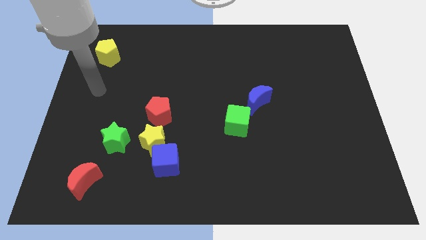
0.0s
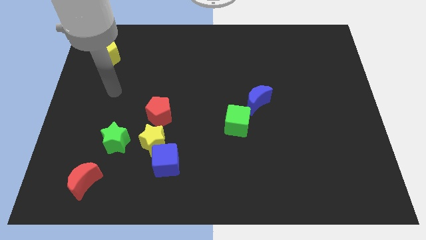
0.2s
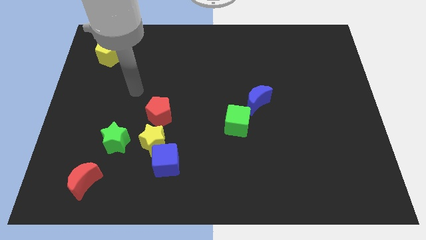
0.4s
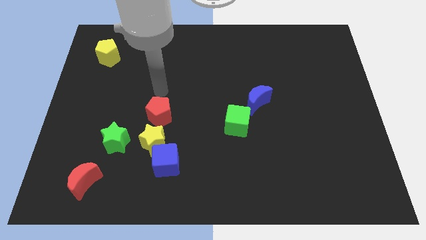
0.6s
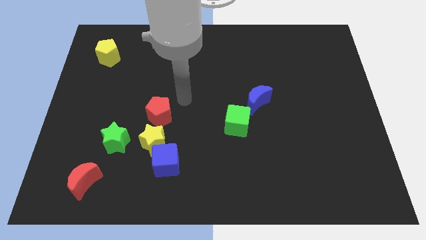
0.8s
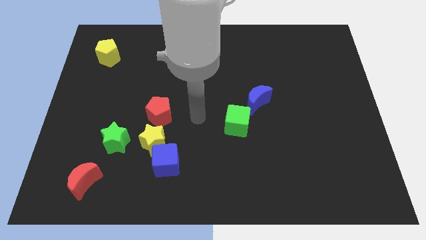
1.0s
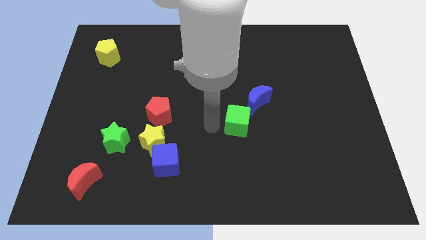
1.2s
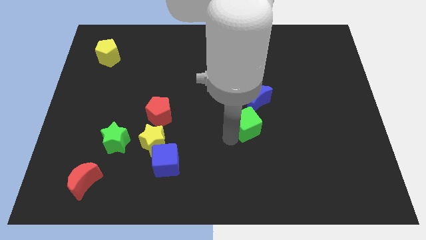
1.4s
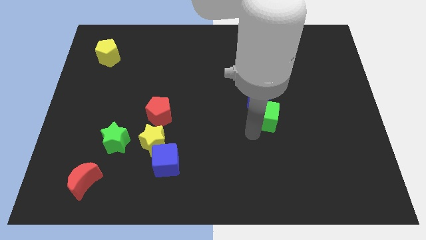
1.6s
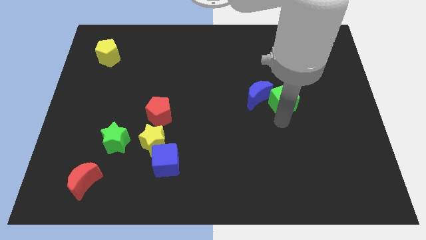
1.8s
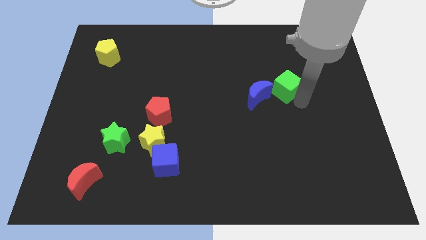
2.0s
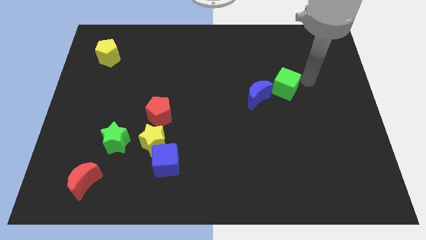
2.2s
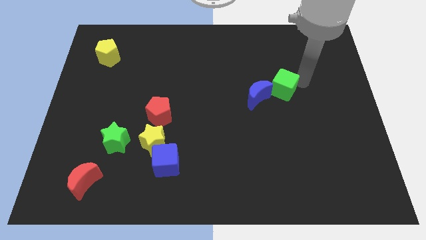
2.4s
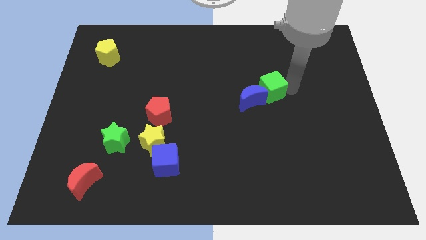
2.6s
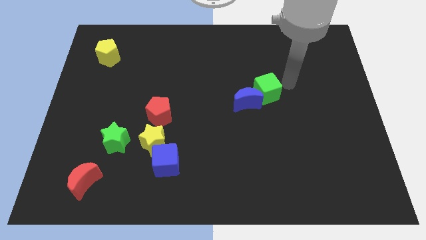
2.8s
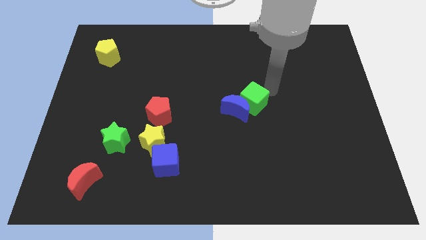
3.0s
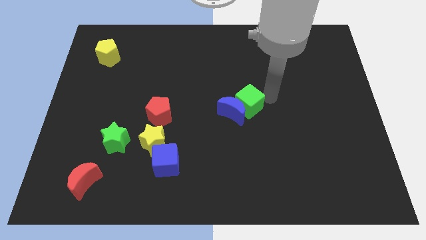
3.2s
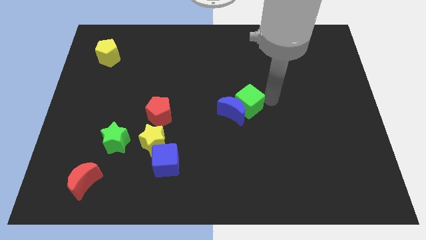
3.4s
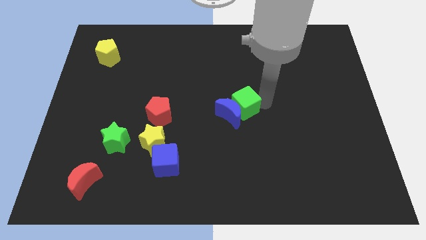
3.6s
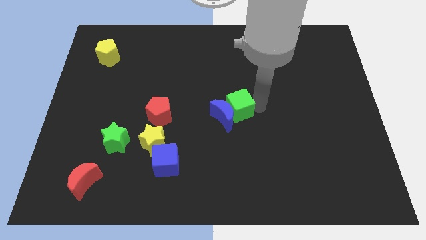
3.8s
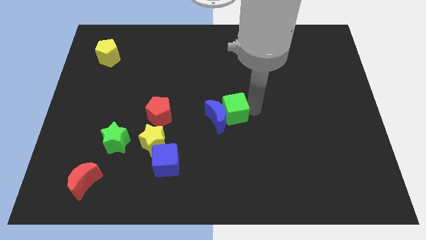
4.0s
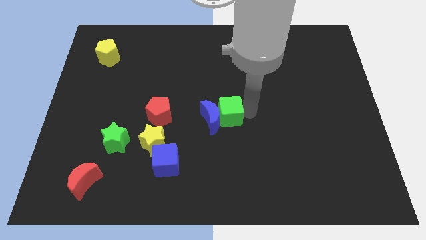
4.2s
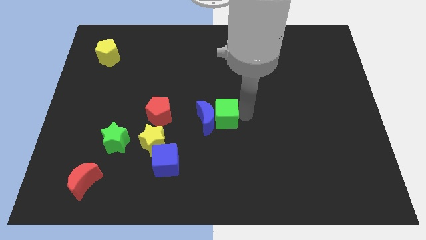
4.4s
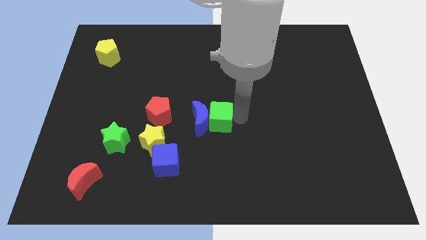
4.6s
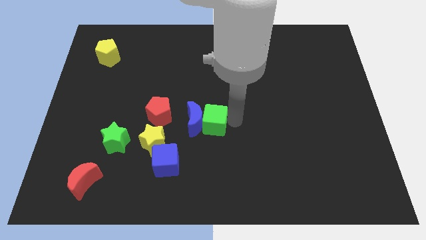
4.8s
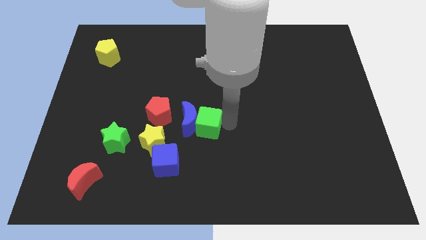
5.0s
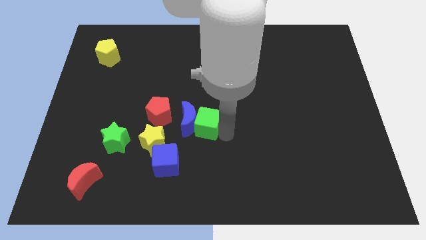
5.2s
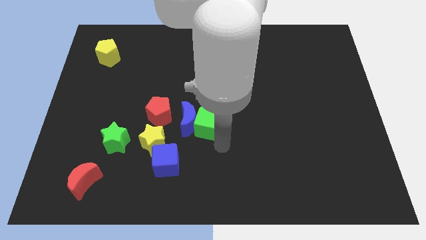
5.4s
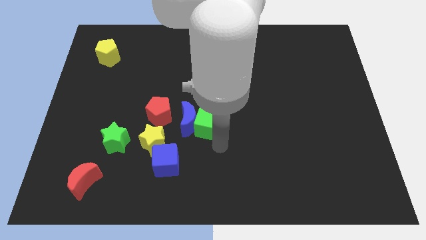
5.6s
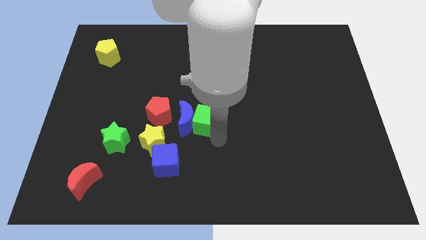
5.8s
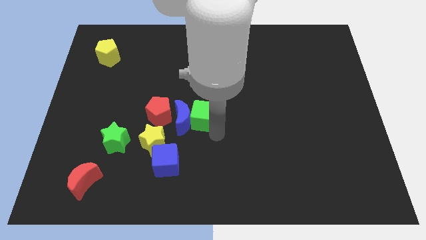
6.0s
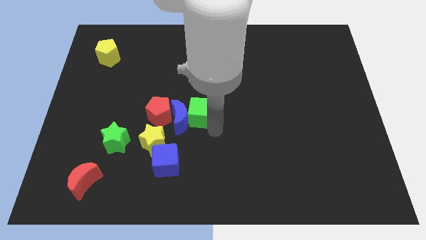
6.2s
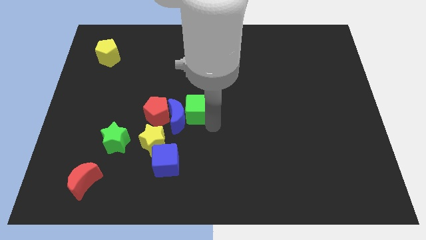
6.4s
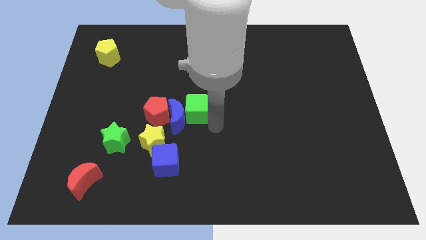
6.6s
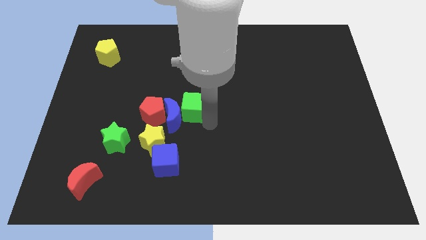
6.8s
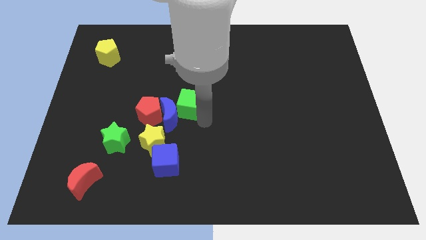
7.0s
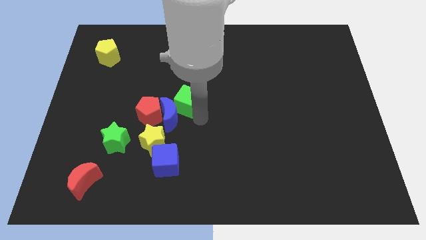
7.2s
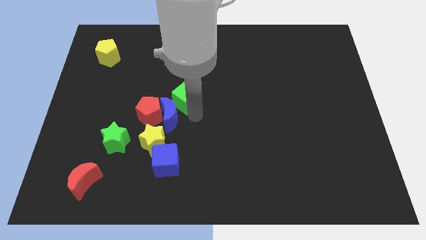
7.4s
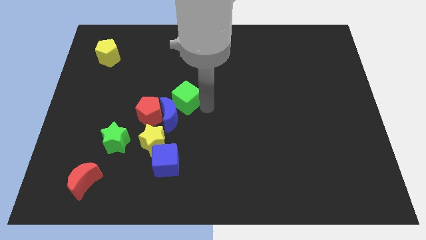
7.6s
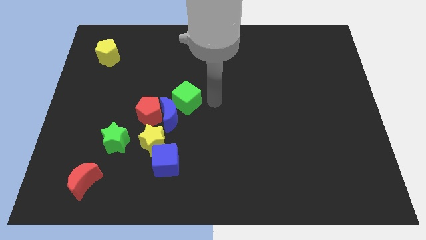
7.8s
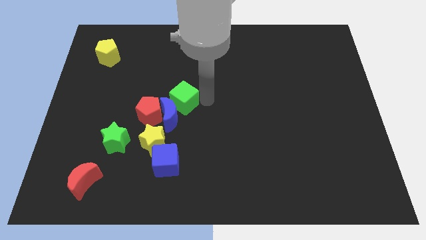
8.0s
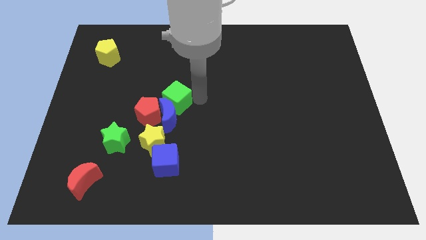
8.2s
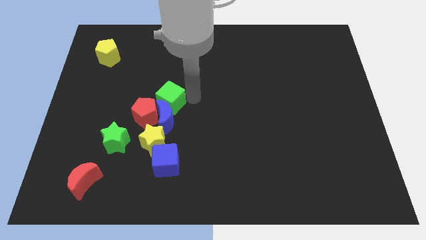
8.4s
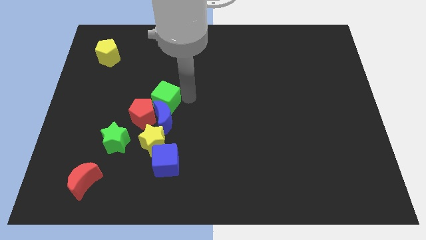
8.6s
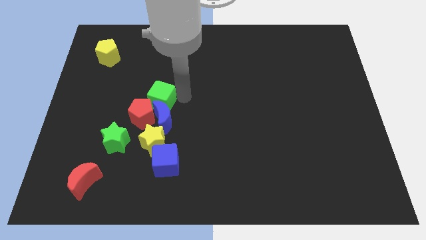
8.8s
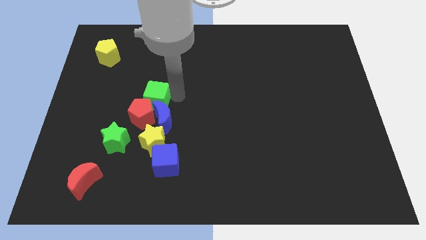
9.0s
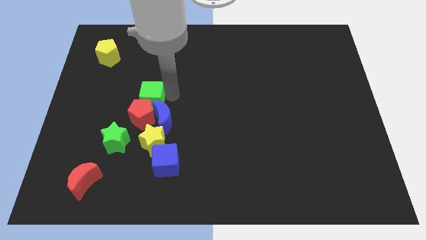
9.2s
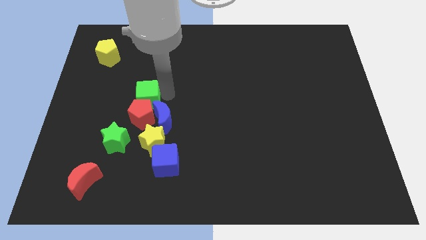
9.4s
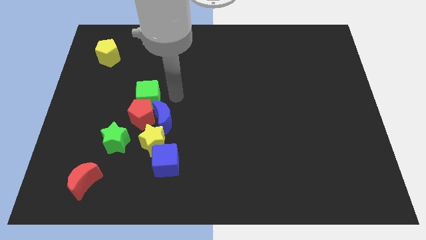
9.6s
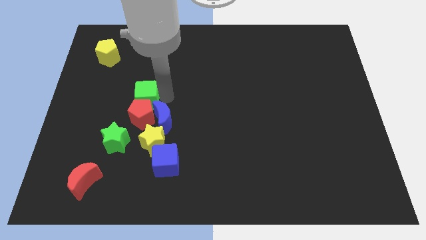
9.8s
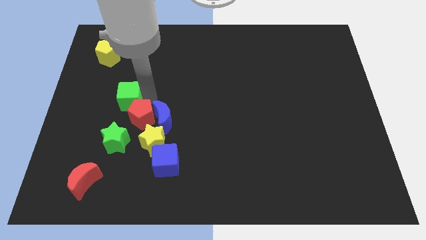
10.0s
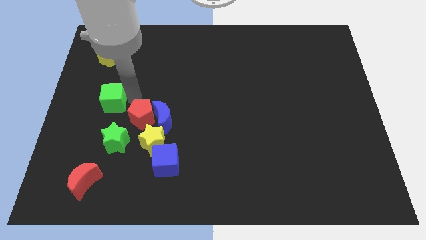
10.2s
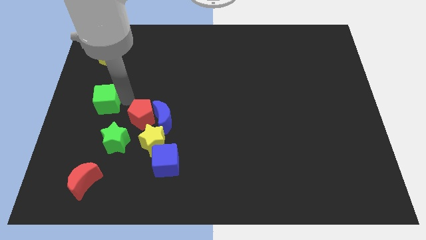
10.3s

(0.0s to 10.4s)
push the green cube to the left side

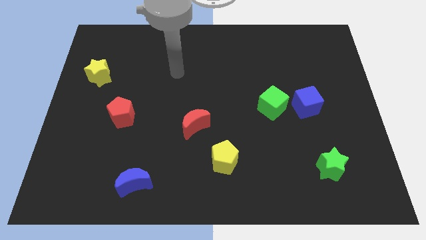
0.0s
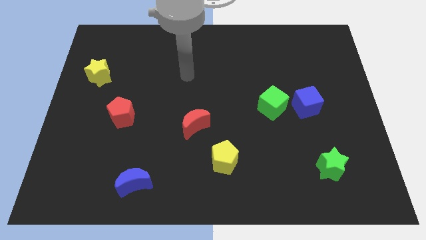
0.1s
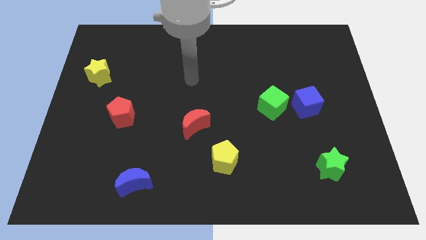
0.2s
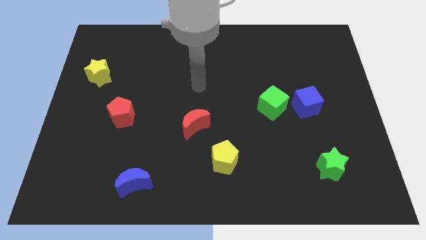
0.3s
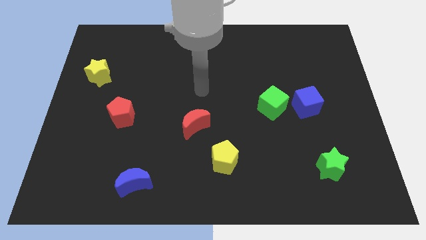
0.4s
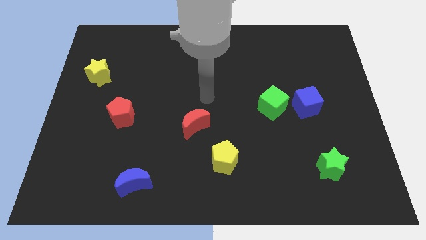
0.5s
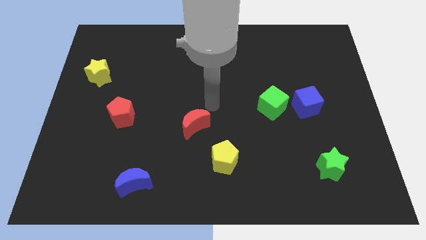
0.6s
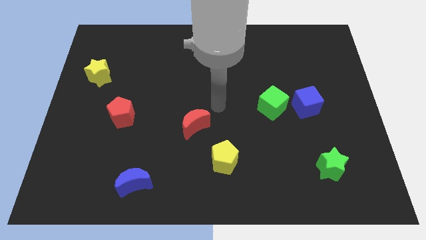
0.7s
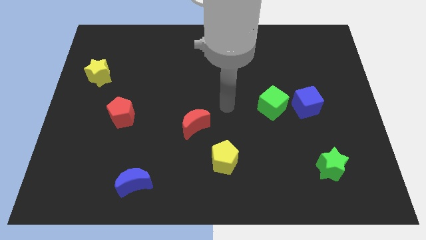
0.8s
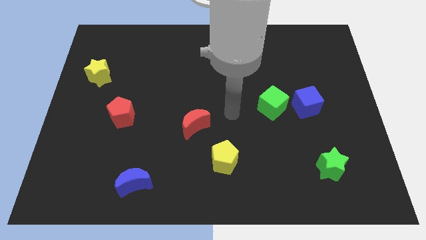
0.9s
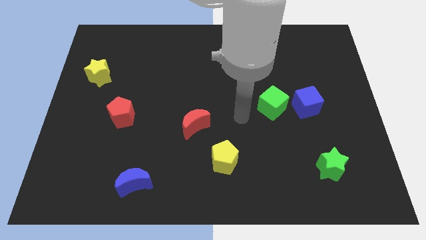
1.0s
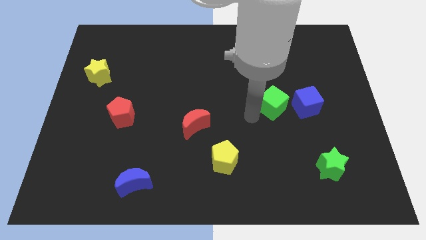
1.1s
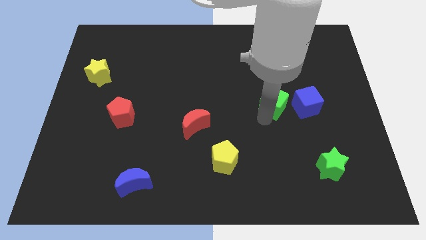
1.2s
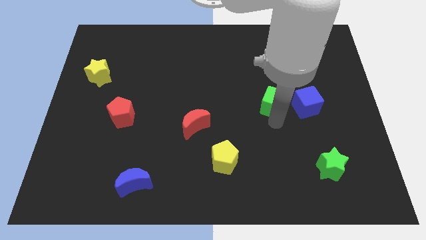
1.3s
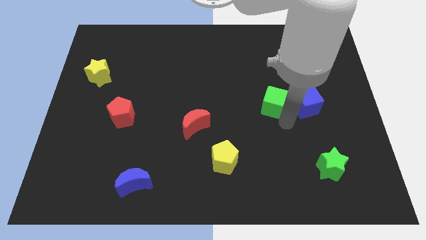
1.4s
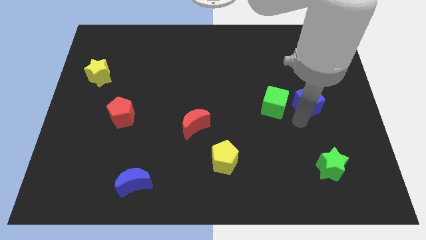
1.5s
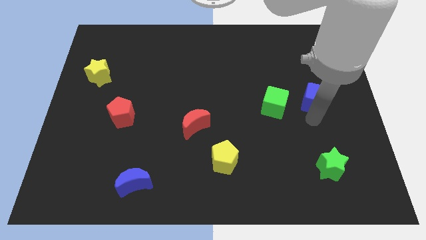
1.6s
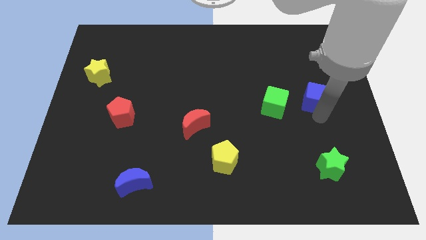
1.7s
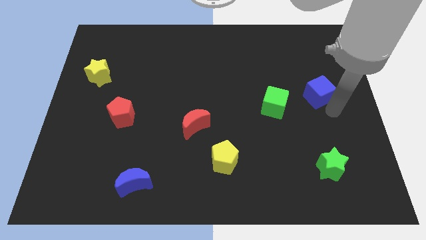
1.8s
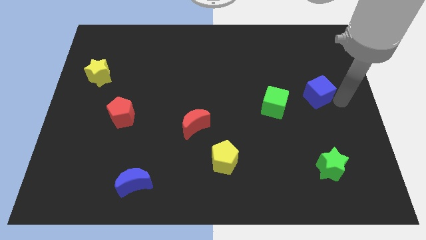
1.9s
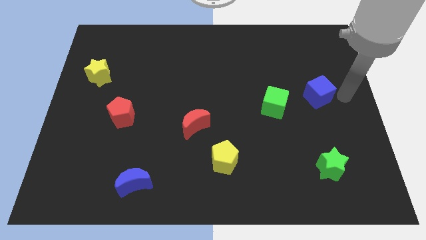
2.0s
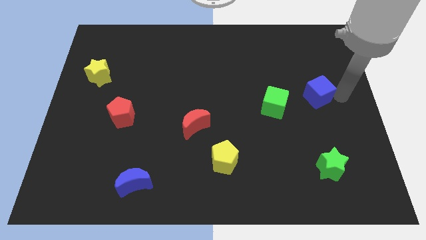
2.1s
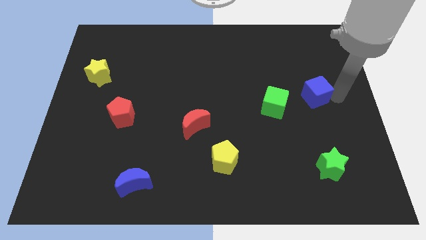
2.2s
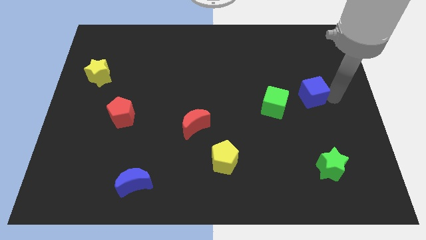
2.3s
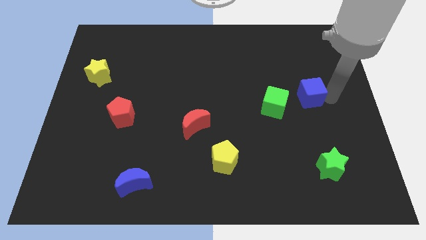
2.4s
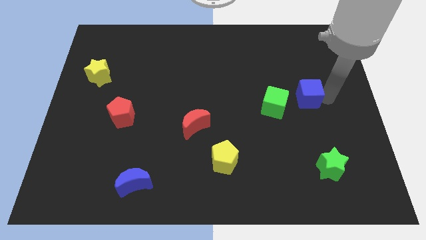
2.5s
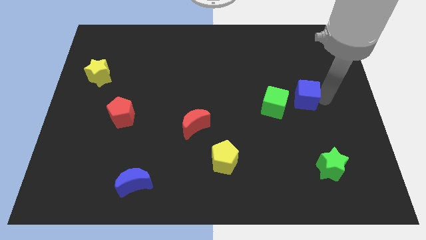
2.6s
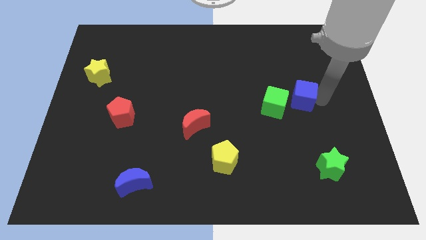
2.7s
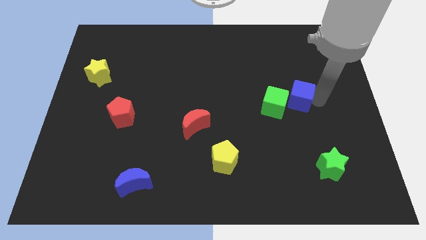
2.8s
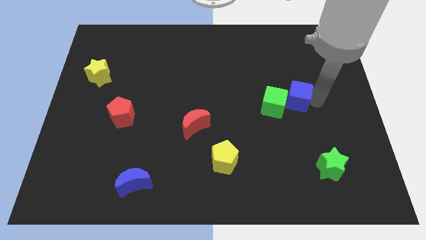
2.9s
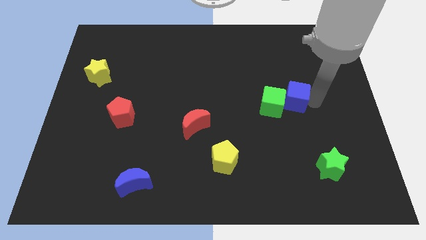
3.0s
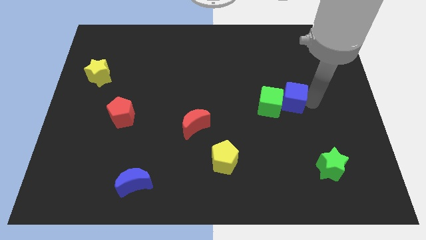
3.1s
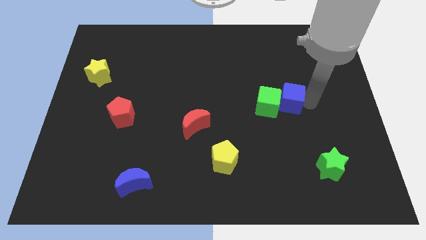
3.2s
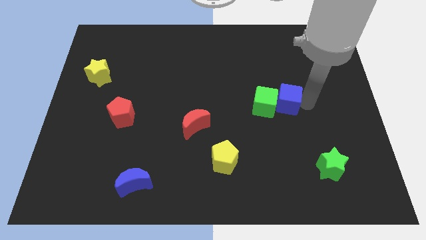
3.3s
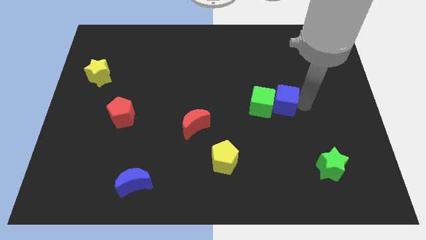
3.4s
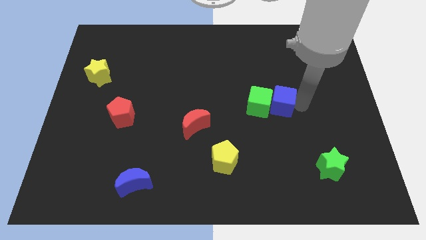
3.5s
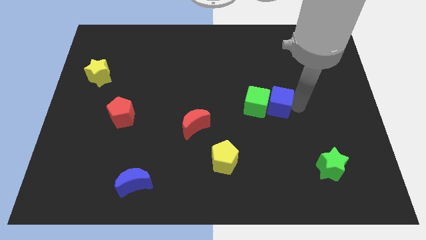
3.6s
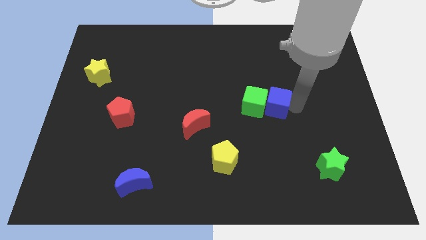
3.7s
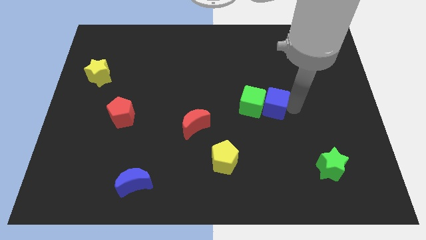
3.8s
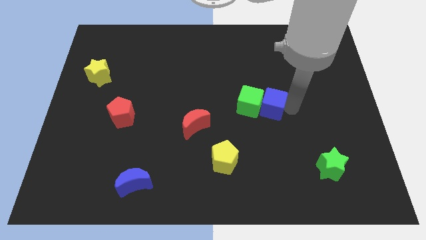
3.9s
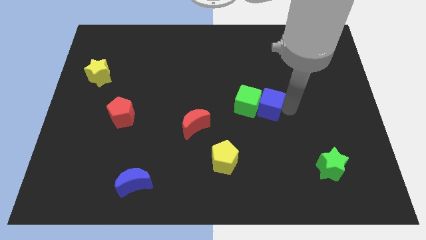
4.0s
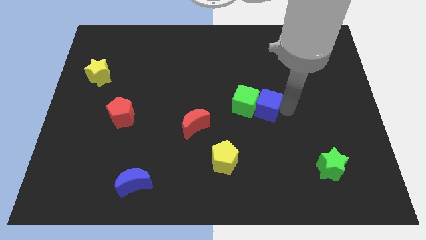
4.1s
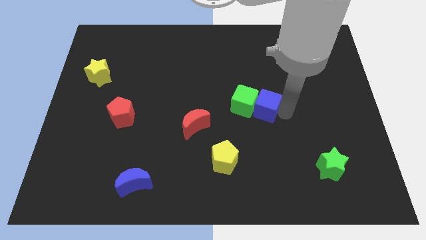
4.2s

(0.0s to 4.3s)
push the blue cube to the center
